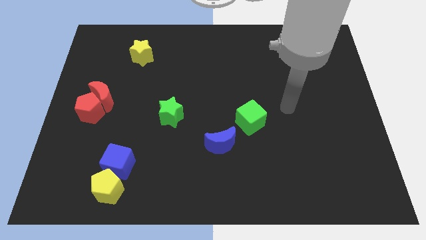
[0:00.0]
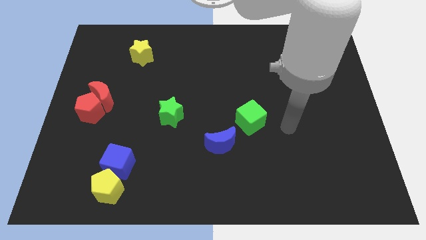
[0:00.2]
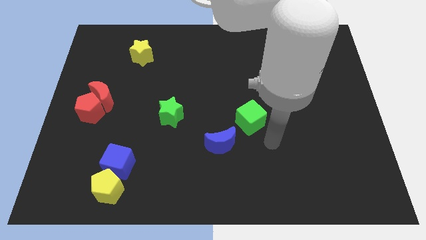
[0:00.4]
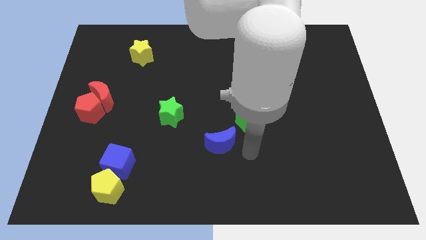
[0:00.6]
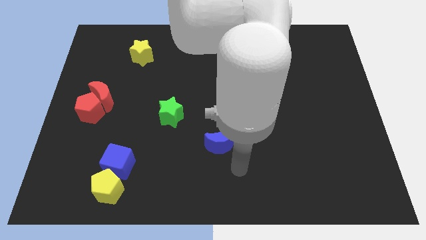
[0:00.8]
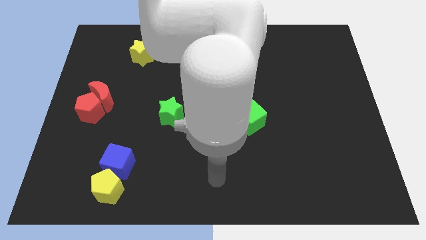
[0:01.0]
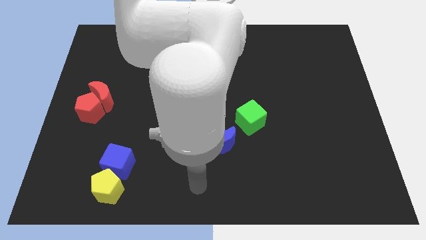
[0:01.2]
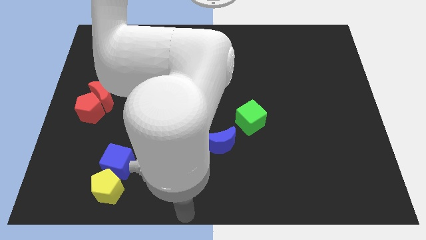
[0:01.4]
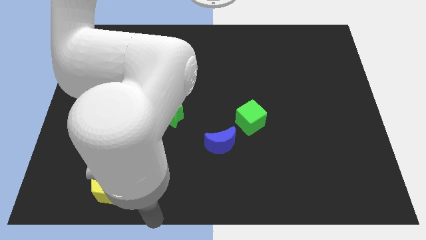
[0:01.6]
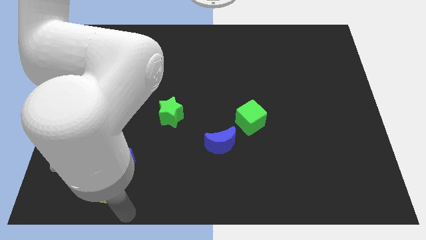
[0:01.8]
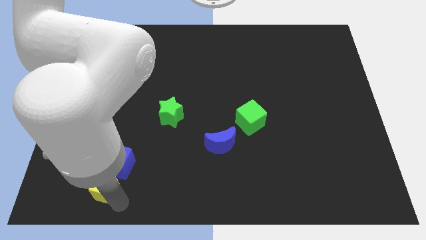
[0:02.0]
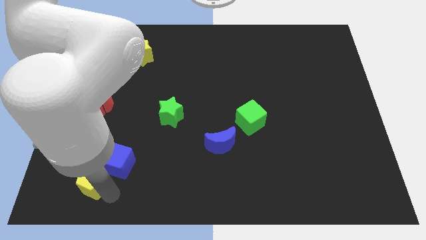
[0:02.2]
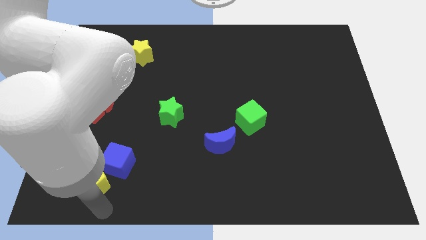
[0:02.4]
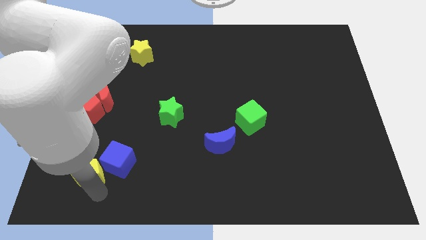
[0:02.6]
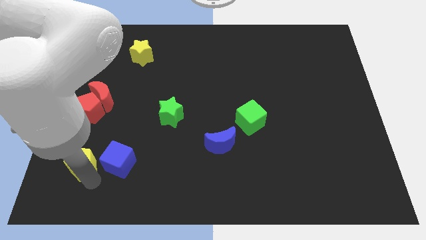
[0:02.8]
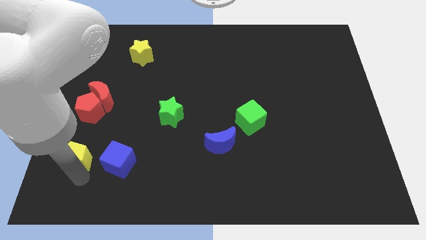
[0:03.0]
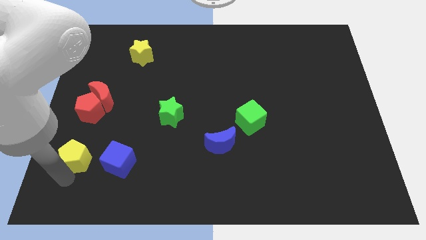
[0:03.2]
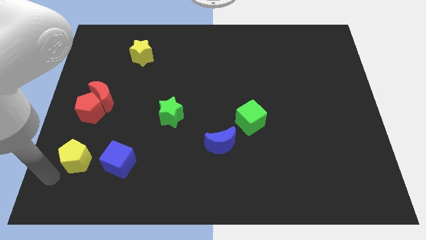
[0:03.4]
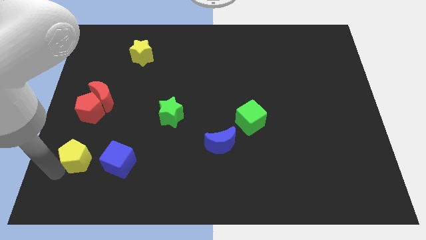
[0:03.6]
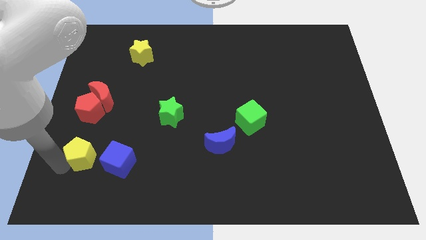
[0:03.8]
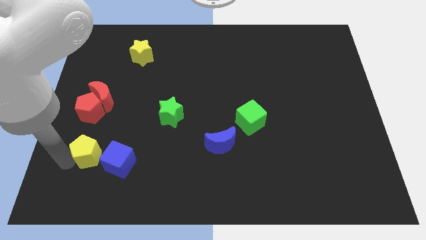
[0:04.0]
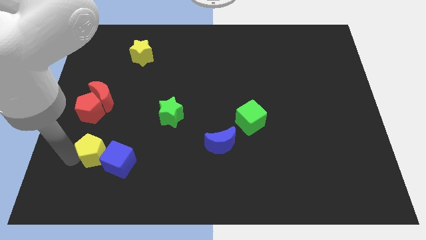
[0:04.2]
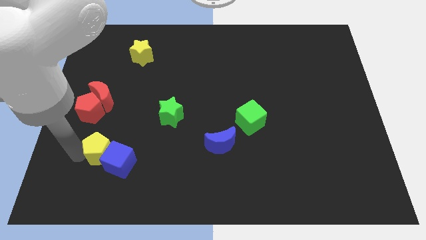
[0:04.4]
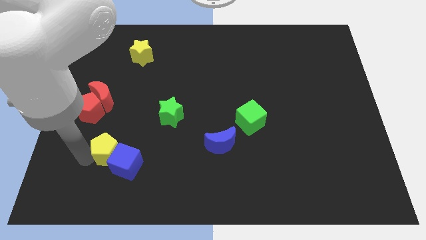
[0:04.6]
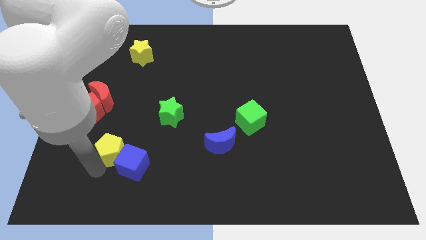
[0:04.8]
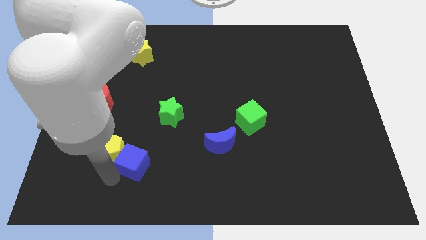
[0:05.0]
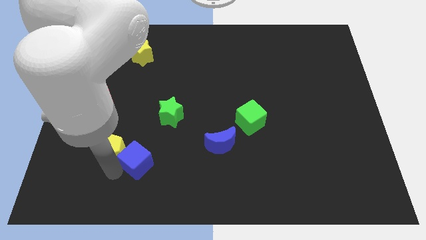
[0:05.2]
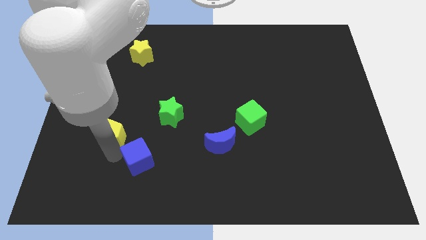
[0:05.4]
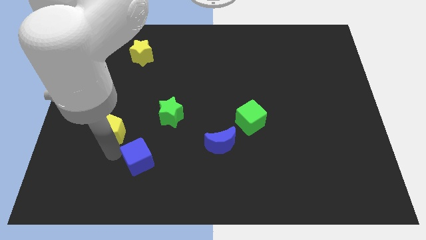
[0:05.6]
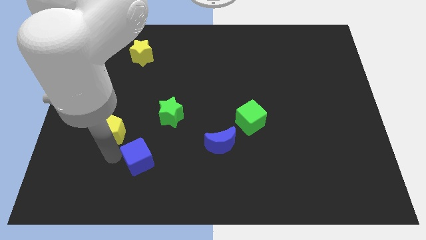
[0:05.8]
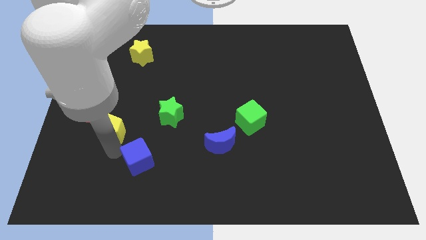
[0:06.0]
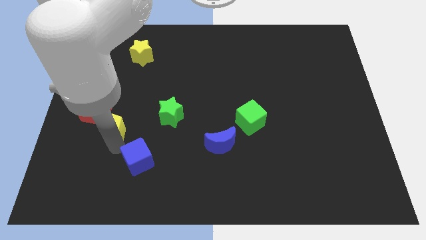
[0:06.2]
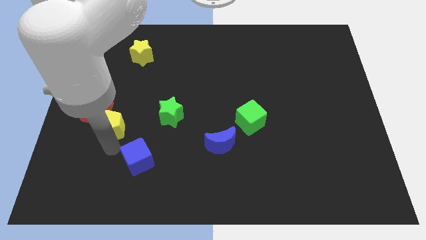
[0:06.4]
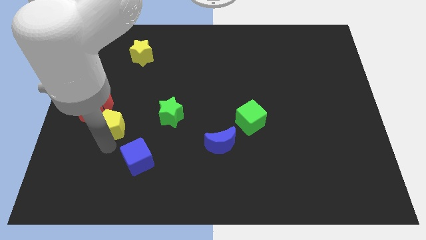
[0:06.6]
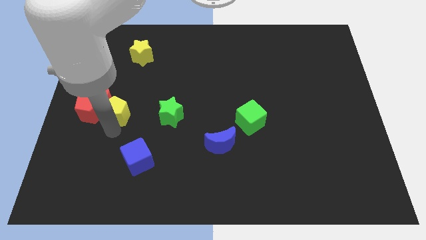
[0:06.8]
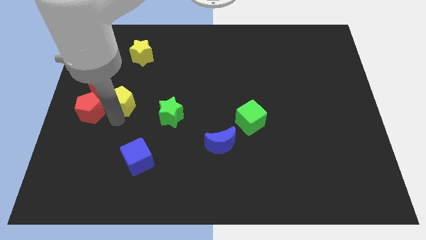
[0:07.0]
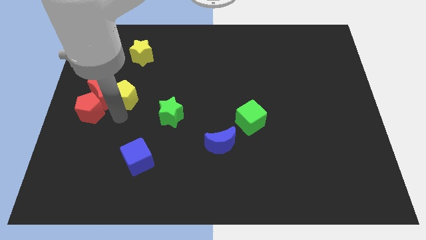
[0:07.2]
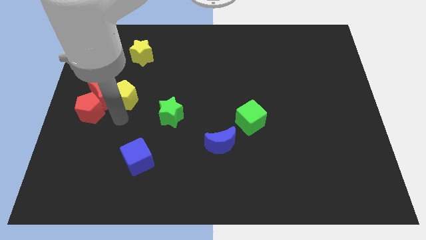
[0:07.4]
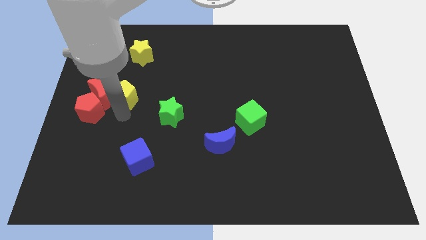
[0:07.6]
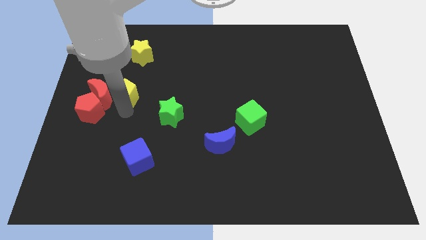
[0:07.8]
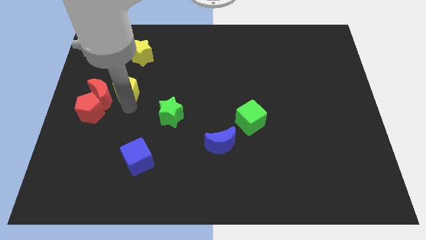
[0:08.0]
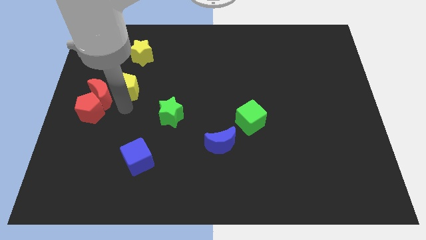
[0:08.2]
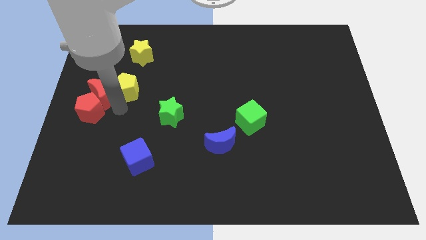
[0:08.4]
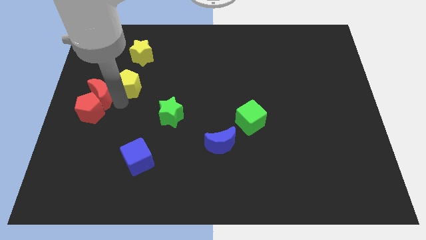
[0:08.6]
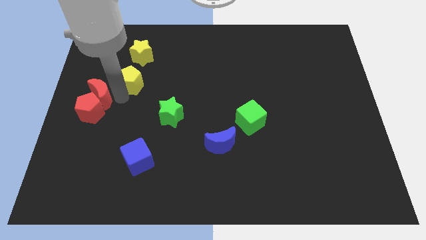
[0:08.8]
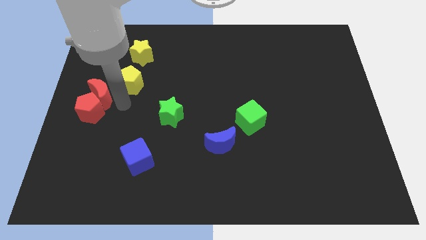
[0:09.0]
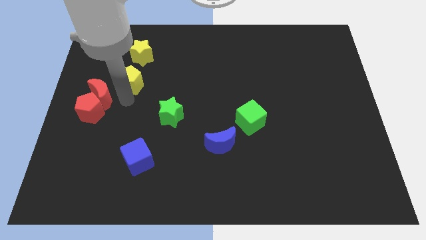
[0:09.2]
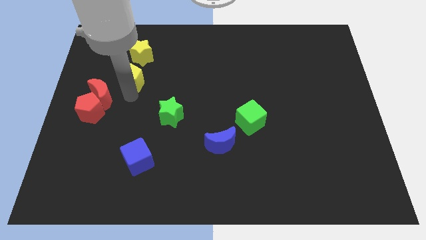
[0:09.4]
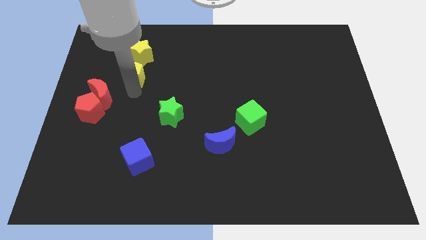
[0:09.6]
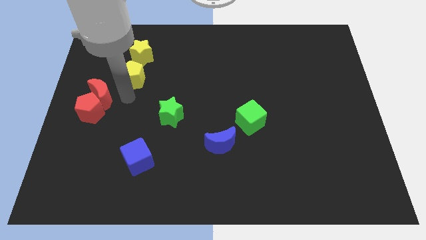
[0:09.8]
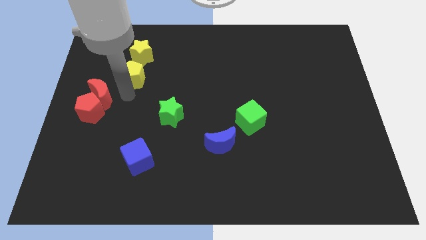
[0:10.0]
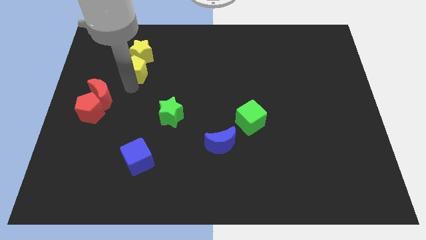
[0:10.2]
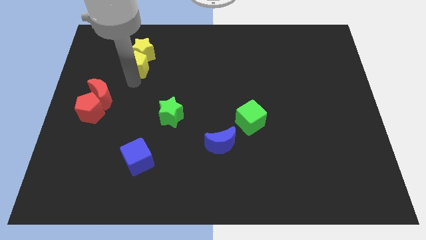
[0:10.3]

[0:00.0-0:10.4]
push the yellow pentagon next to the yellow star

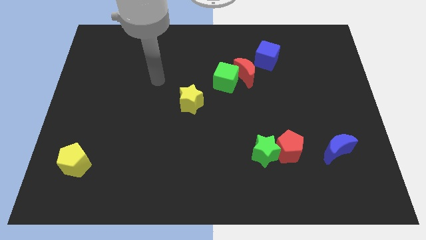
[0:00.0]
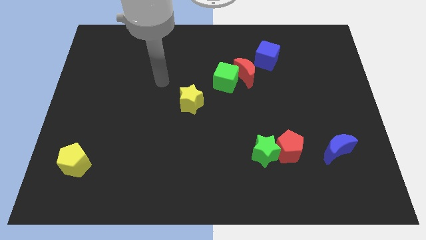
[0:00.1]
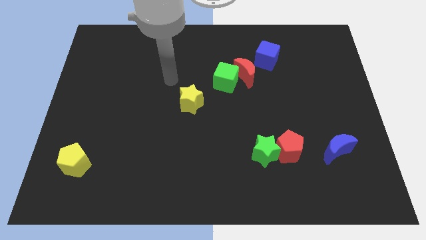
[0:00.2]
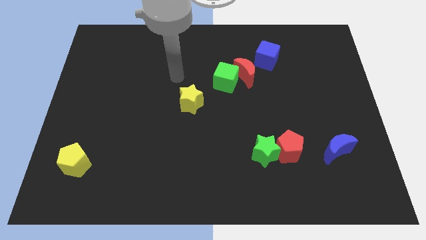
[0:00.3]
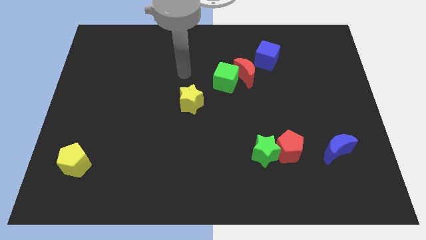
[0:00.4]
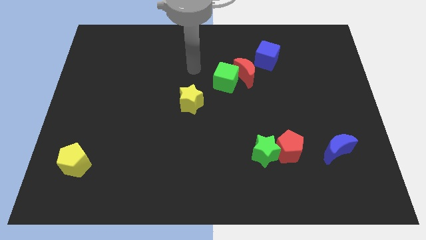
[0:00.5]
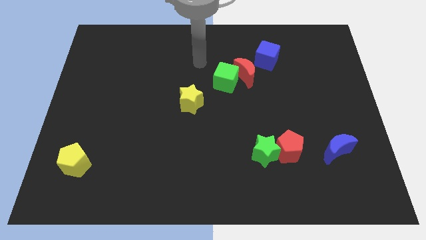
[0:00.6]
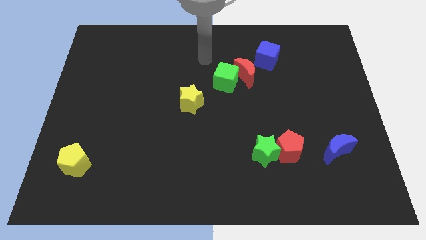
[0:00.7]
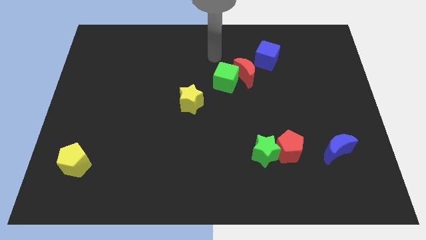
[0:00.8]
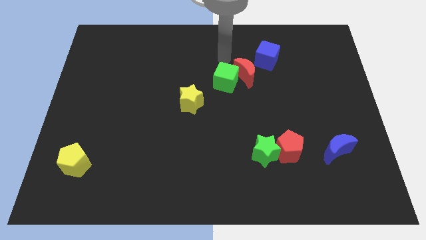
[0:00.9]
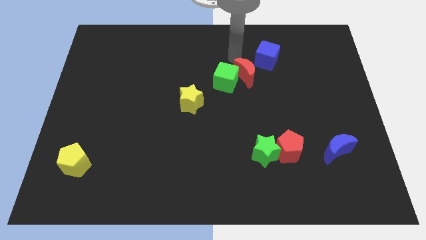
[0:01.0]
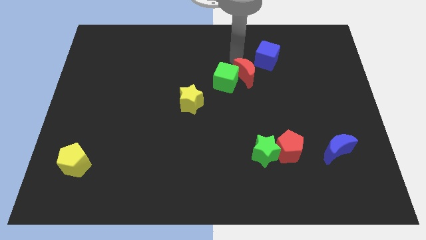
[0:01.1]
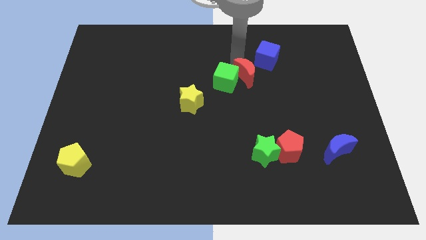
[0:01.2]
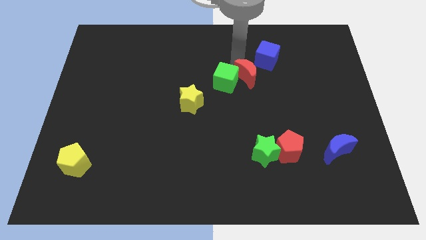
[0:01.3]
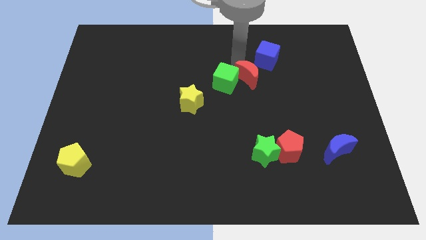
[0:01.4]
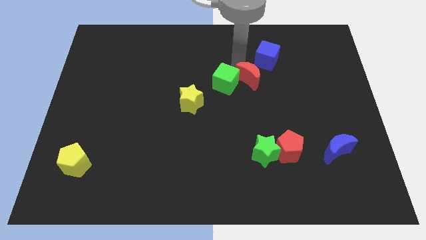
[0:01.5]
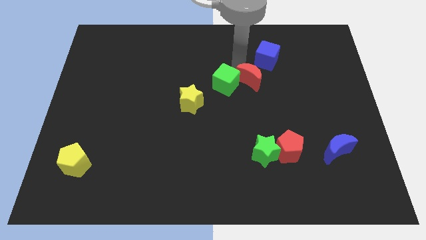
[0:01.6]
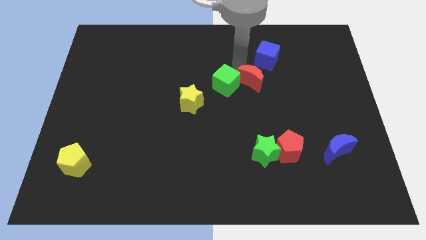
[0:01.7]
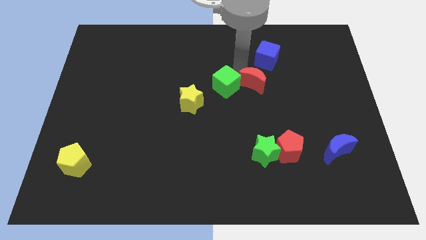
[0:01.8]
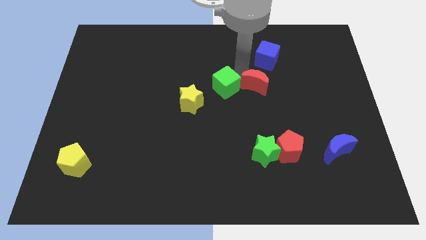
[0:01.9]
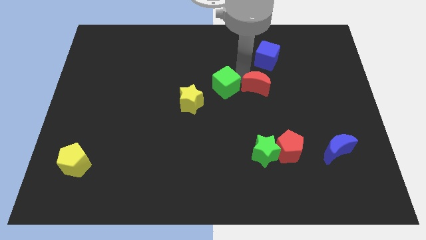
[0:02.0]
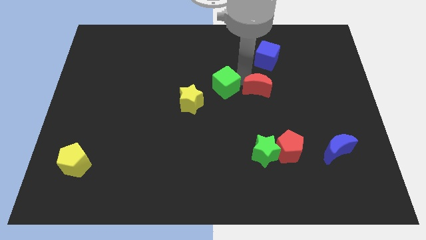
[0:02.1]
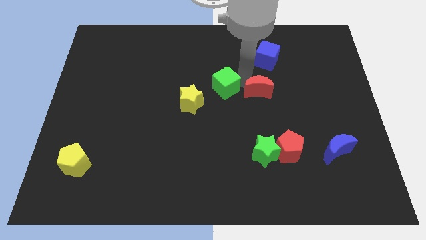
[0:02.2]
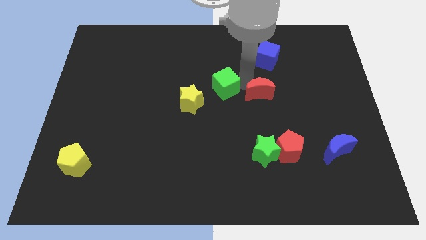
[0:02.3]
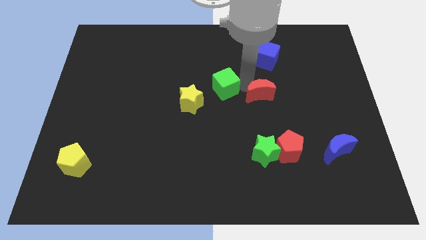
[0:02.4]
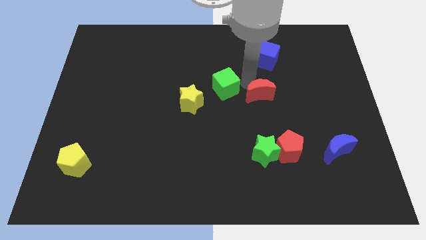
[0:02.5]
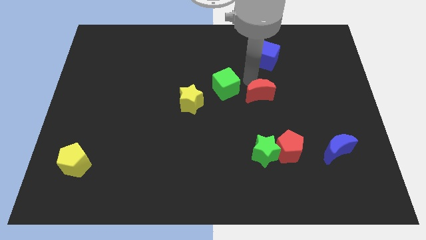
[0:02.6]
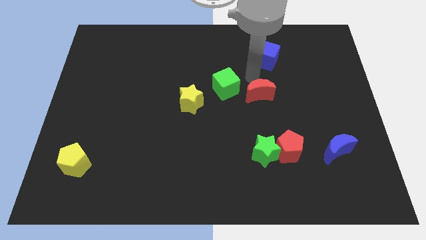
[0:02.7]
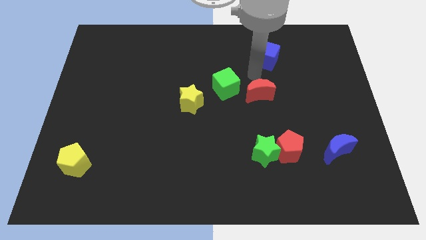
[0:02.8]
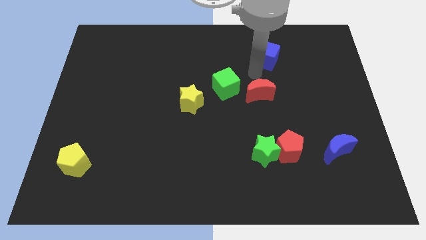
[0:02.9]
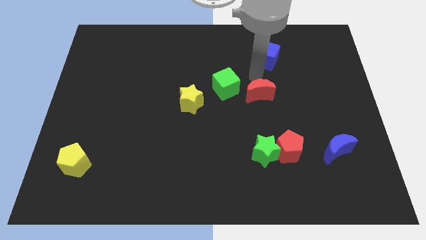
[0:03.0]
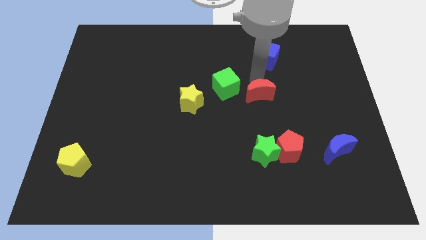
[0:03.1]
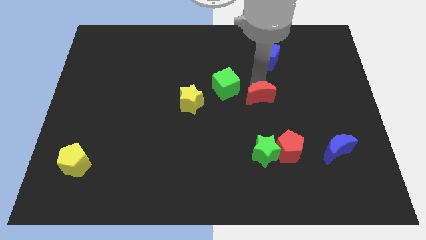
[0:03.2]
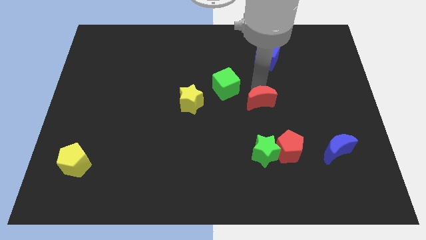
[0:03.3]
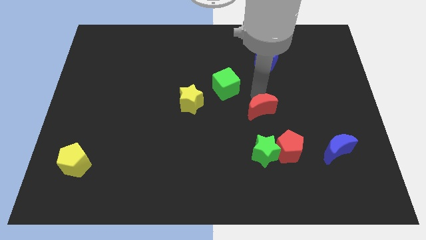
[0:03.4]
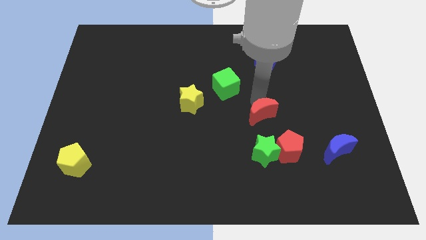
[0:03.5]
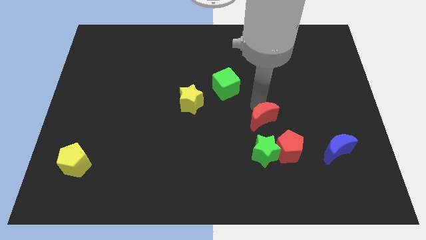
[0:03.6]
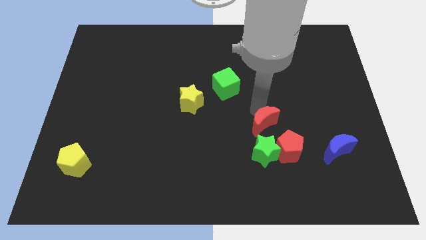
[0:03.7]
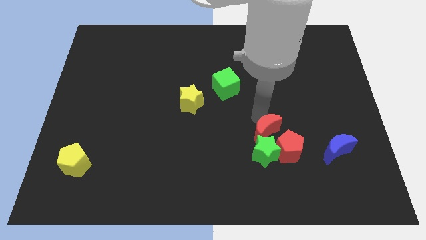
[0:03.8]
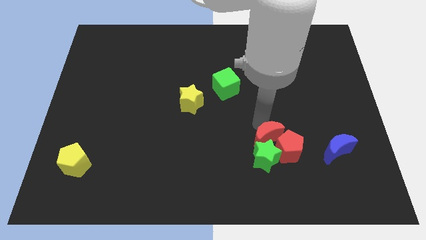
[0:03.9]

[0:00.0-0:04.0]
slide the red moon close to the red pentagon
